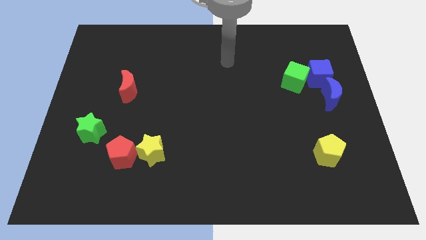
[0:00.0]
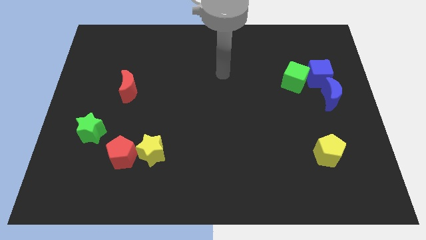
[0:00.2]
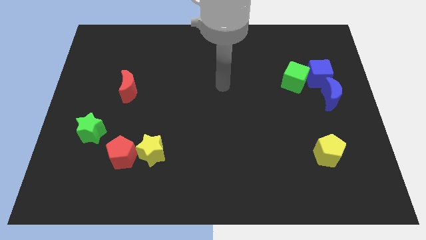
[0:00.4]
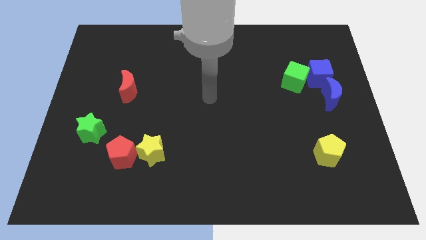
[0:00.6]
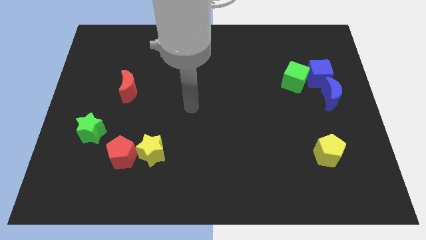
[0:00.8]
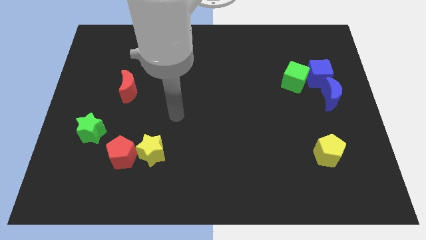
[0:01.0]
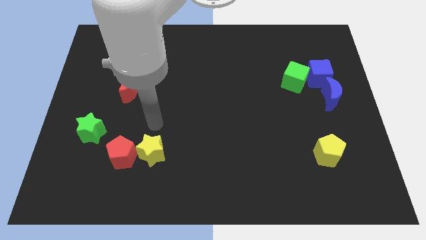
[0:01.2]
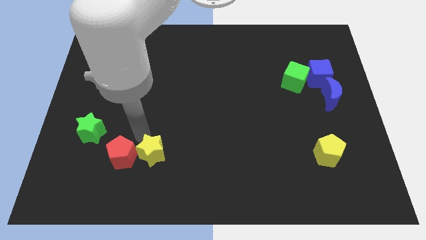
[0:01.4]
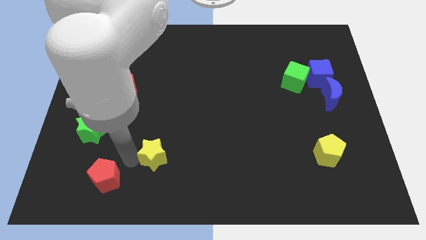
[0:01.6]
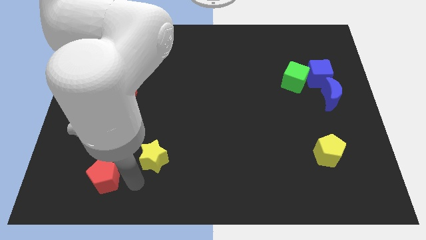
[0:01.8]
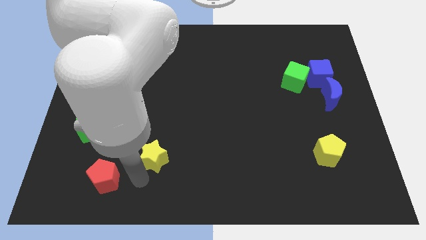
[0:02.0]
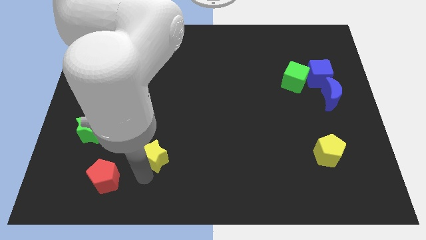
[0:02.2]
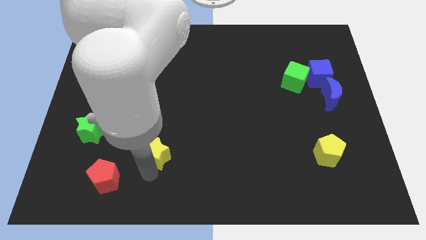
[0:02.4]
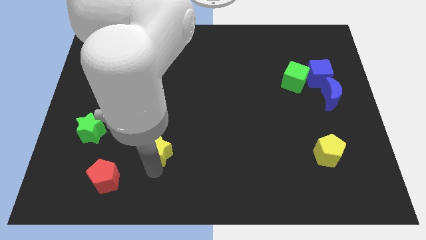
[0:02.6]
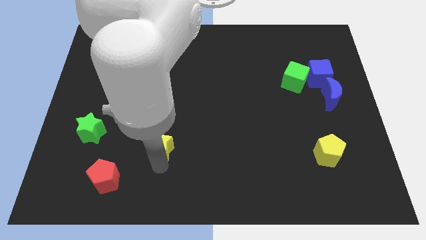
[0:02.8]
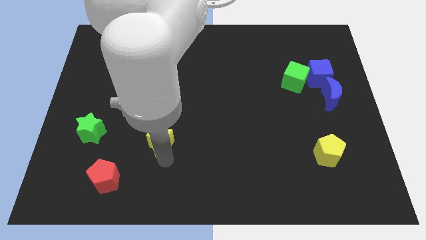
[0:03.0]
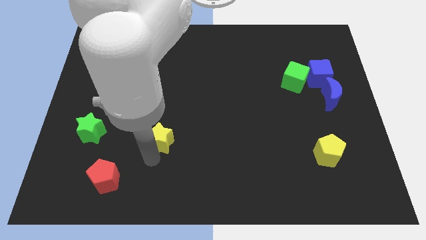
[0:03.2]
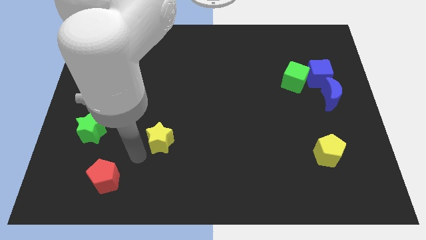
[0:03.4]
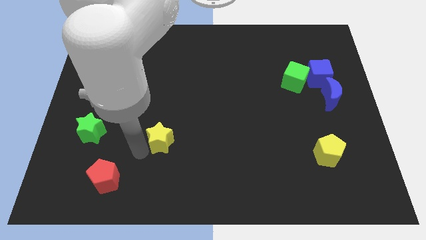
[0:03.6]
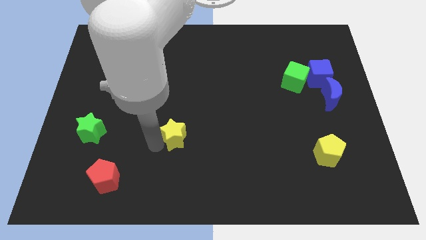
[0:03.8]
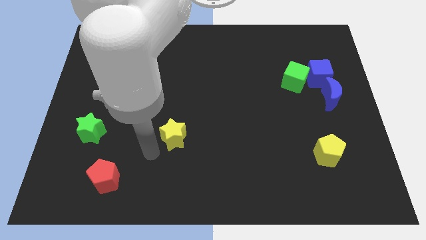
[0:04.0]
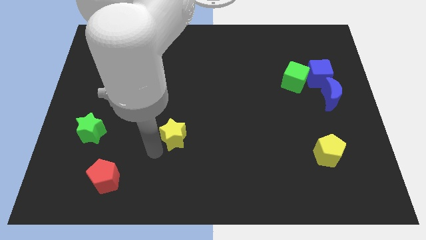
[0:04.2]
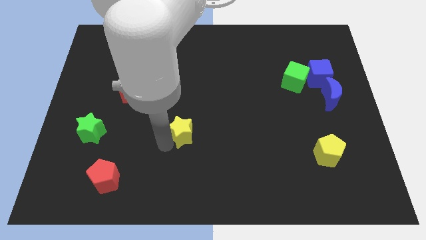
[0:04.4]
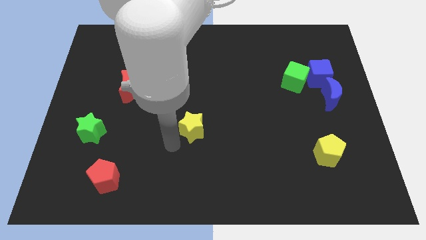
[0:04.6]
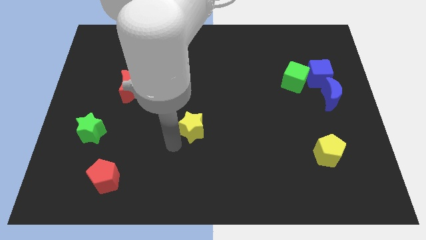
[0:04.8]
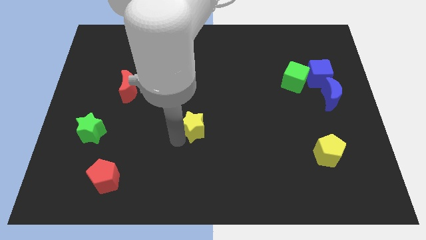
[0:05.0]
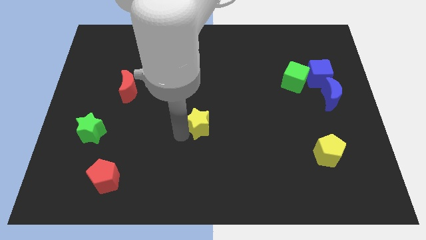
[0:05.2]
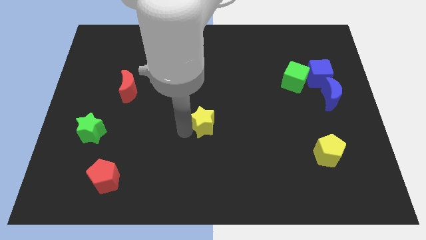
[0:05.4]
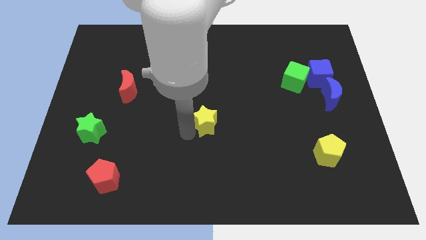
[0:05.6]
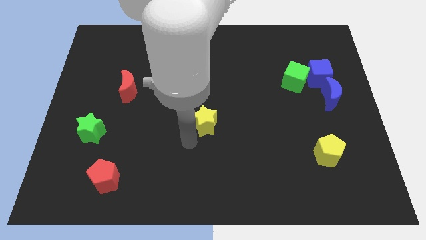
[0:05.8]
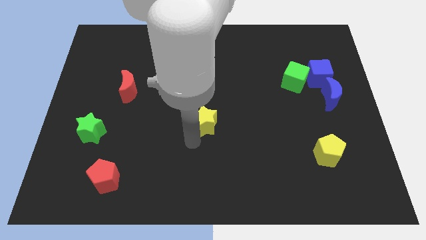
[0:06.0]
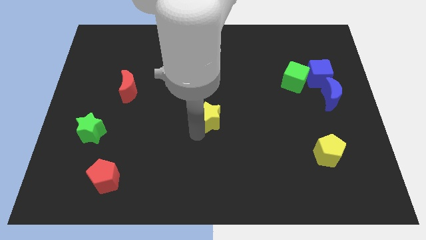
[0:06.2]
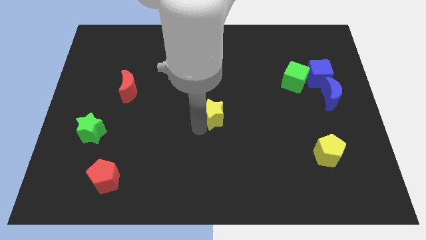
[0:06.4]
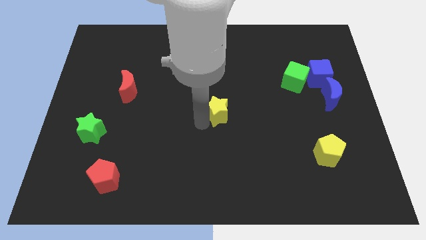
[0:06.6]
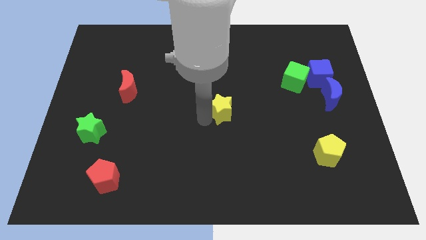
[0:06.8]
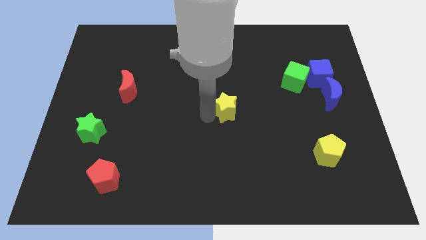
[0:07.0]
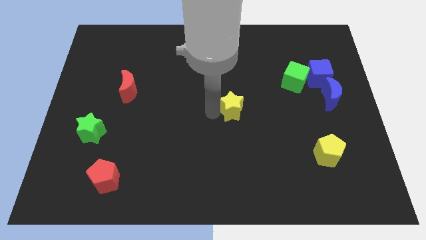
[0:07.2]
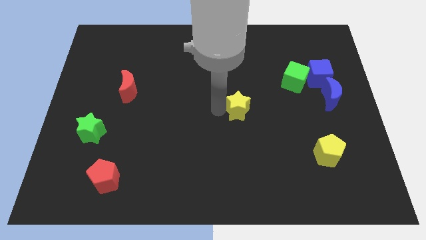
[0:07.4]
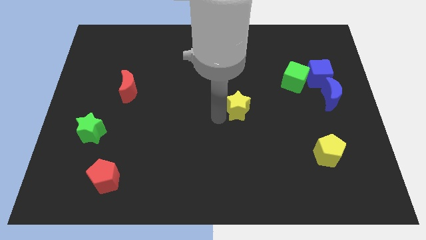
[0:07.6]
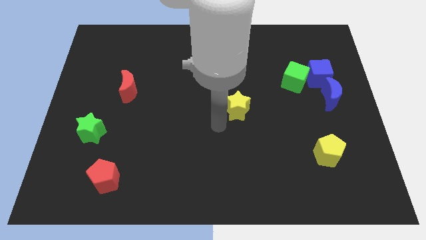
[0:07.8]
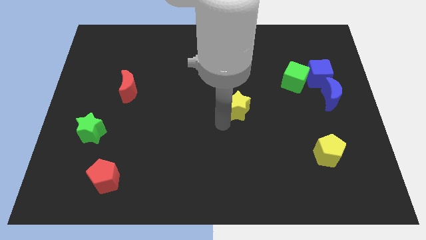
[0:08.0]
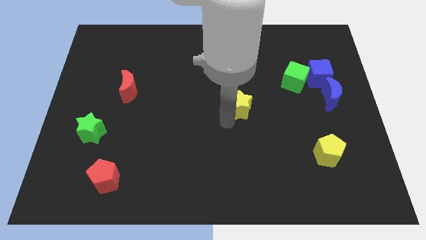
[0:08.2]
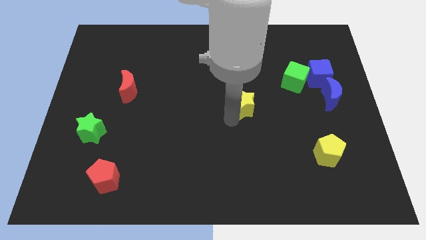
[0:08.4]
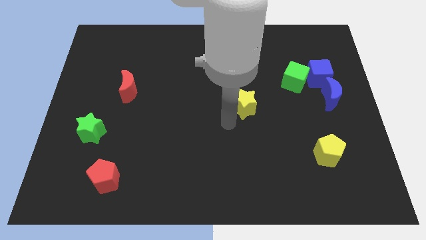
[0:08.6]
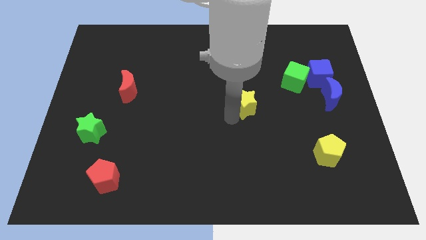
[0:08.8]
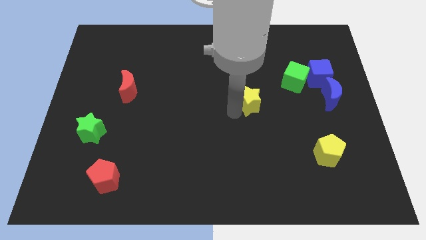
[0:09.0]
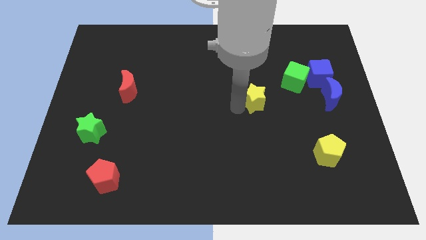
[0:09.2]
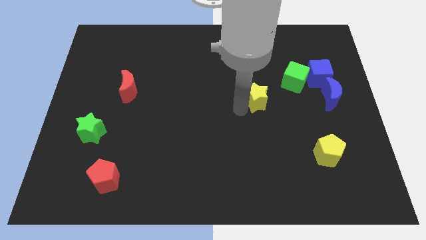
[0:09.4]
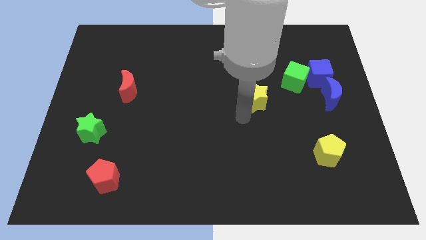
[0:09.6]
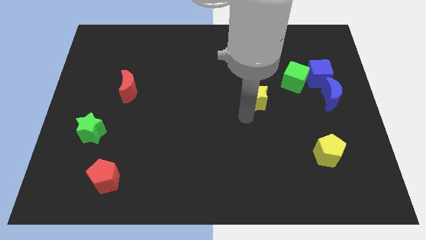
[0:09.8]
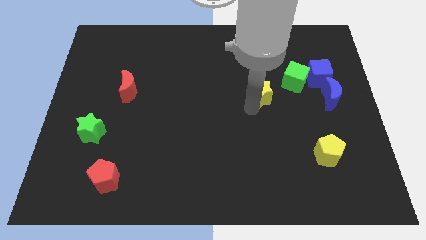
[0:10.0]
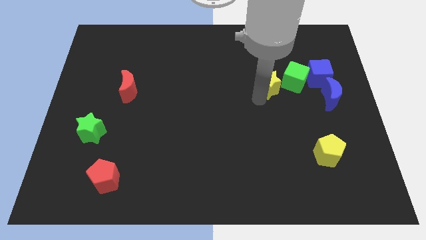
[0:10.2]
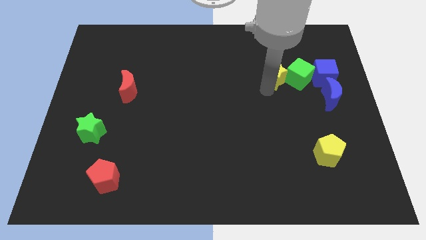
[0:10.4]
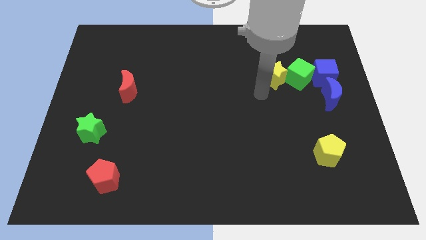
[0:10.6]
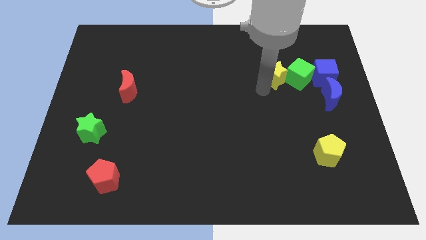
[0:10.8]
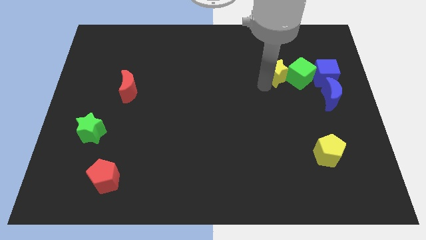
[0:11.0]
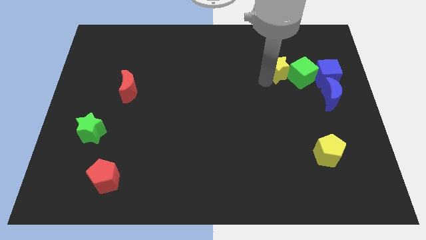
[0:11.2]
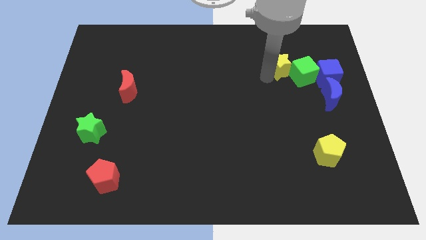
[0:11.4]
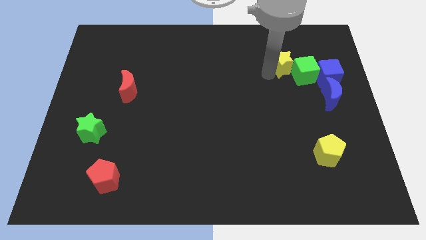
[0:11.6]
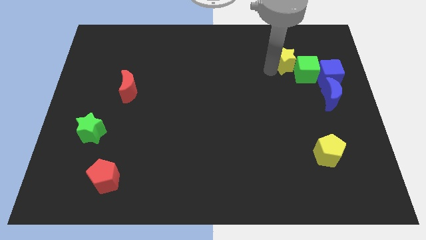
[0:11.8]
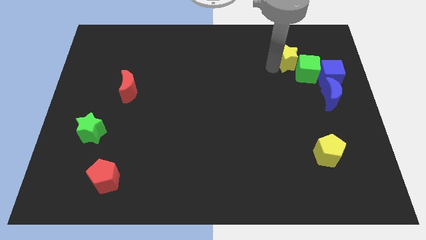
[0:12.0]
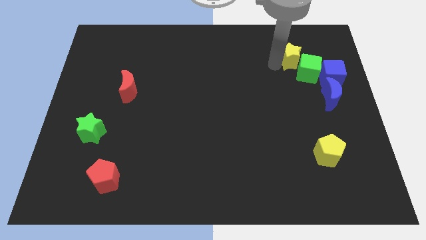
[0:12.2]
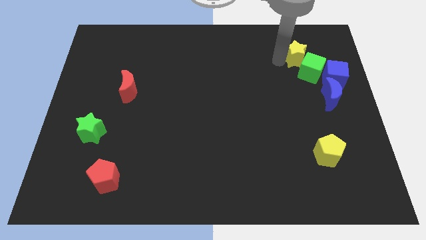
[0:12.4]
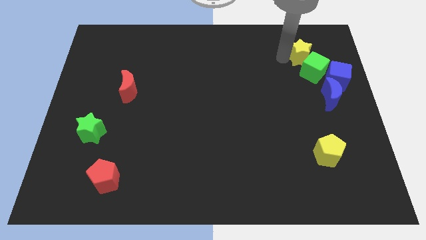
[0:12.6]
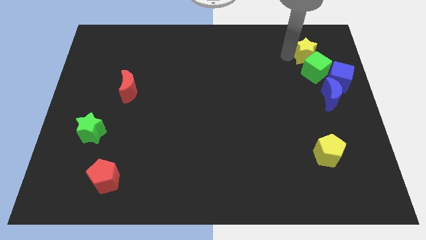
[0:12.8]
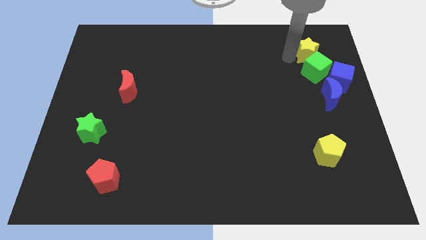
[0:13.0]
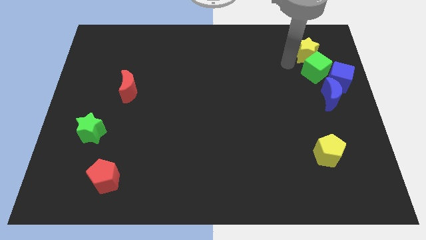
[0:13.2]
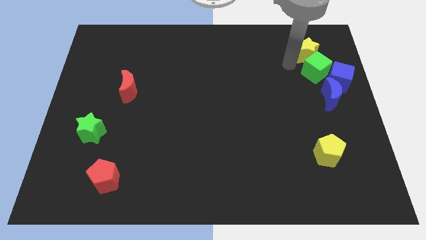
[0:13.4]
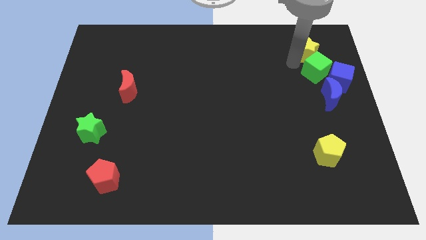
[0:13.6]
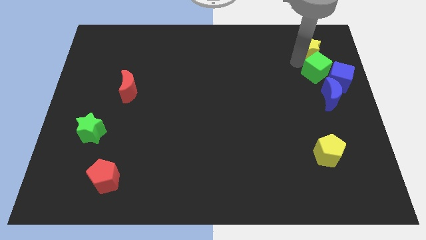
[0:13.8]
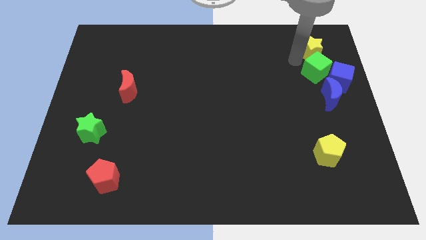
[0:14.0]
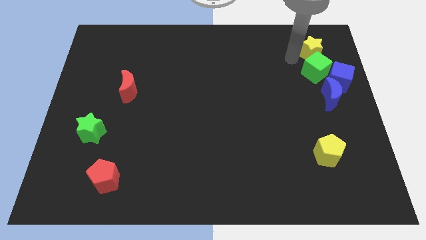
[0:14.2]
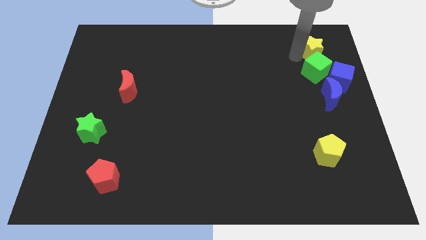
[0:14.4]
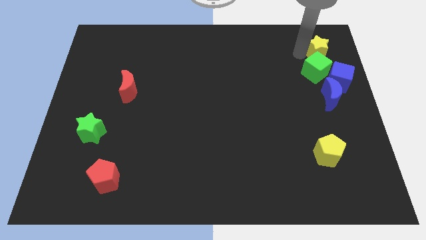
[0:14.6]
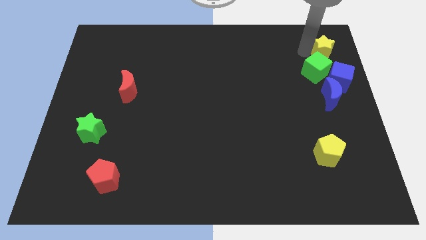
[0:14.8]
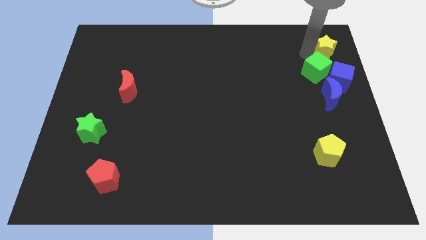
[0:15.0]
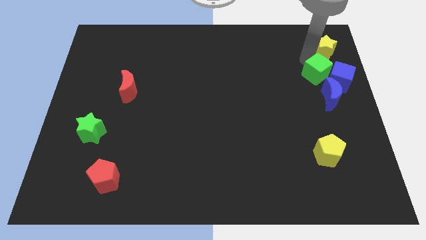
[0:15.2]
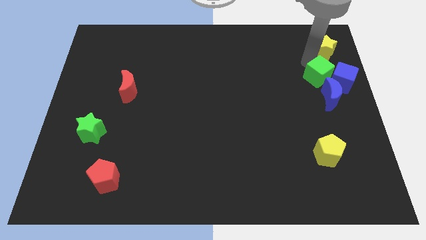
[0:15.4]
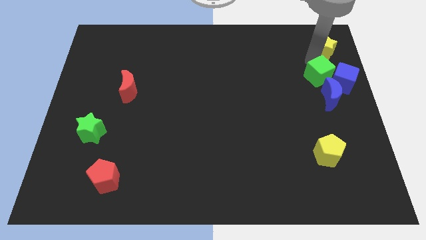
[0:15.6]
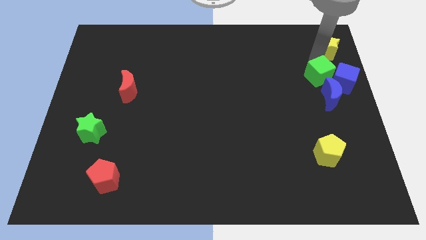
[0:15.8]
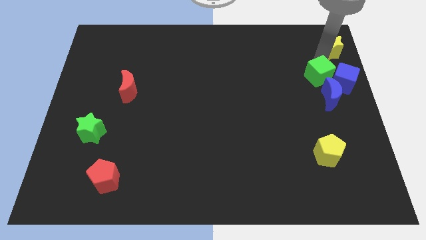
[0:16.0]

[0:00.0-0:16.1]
move the yellow star to the upper right corner
